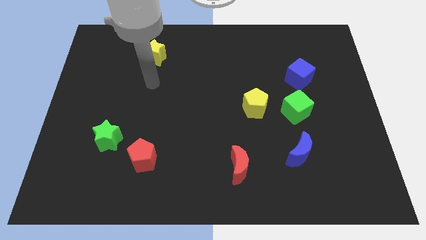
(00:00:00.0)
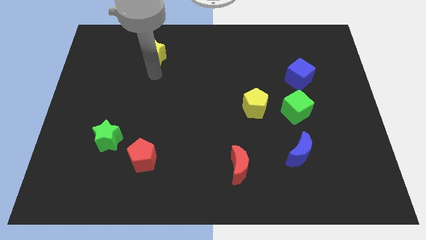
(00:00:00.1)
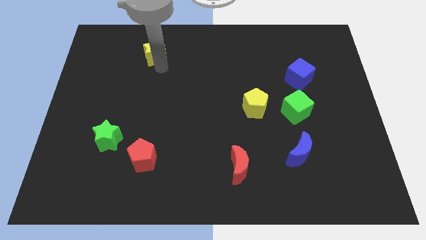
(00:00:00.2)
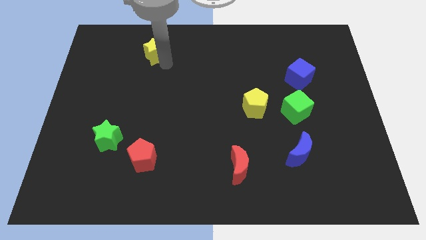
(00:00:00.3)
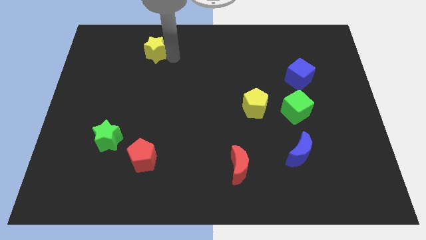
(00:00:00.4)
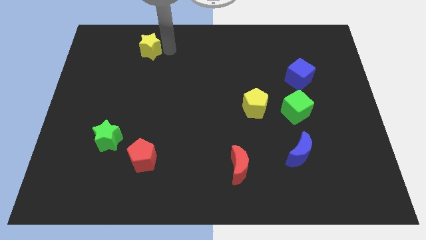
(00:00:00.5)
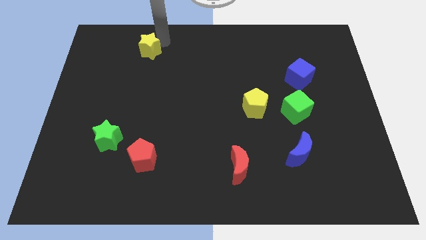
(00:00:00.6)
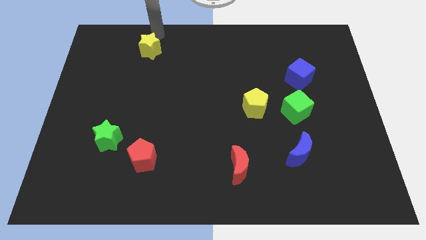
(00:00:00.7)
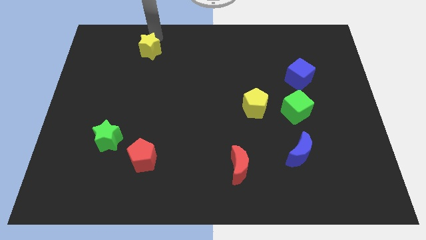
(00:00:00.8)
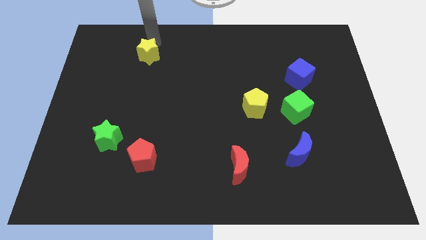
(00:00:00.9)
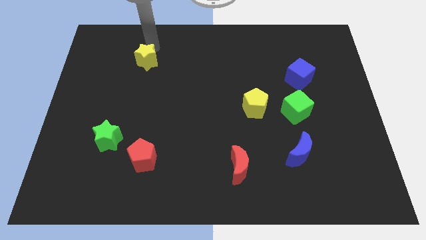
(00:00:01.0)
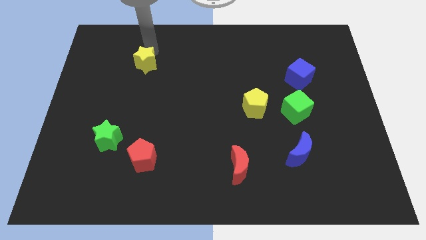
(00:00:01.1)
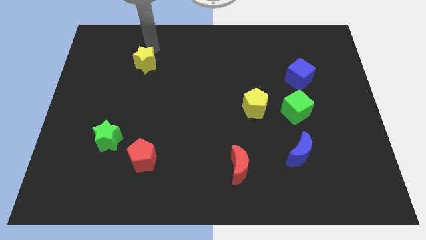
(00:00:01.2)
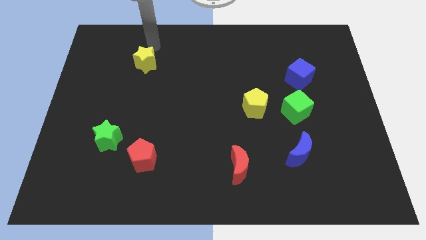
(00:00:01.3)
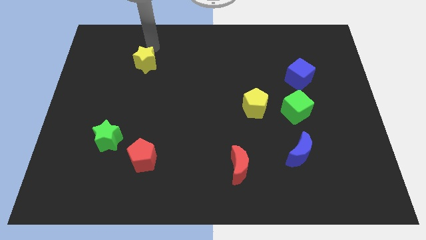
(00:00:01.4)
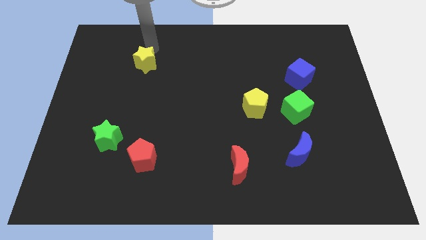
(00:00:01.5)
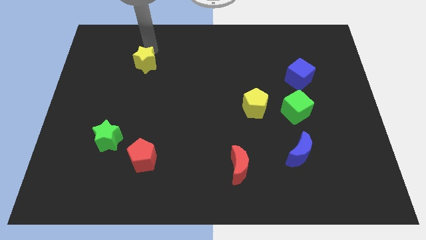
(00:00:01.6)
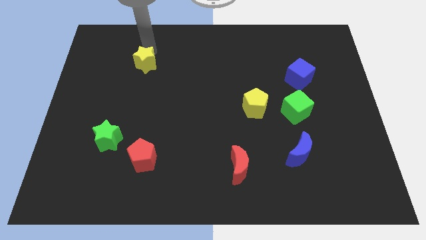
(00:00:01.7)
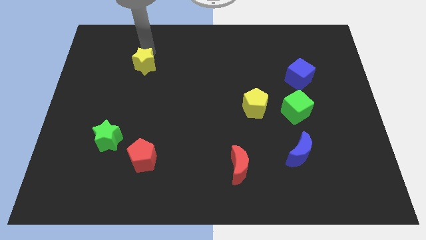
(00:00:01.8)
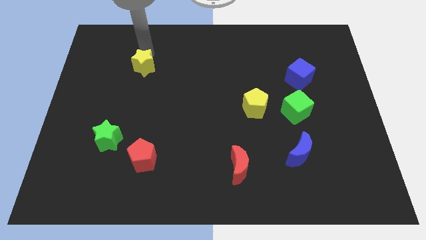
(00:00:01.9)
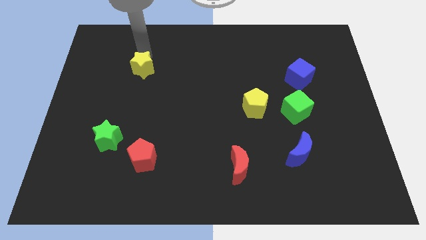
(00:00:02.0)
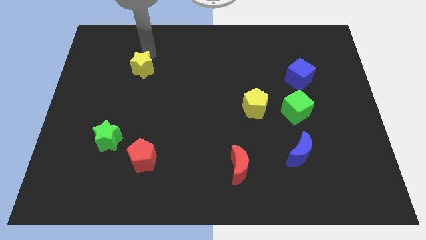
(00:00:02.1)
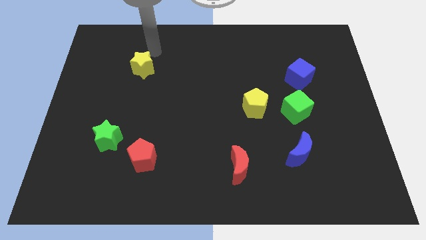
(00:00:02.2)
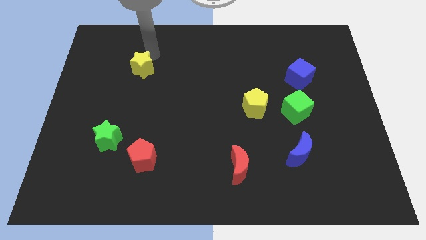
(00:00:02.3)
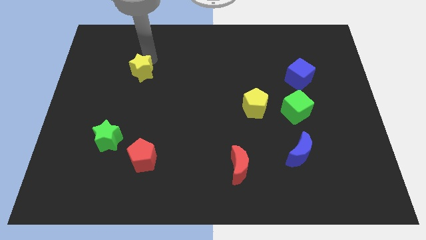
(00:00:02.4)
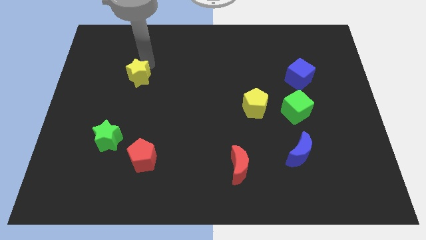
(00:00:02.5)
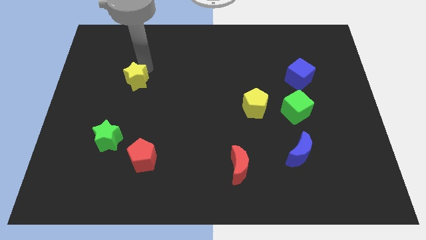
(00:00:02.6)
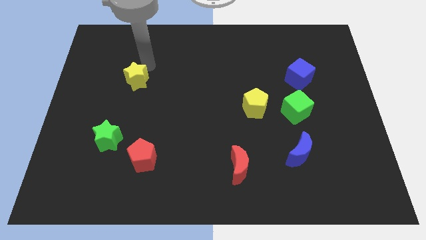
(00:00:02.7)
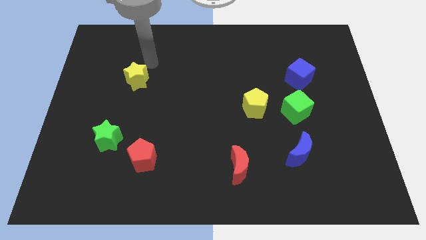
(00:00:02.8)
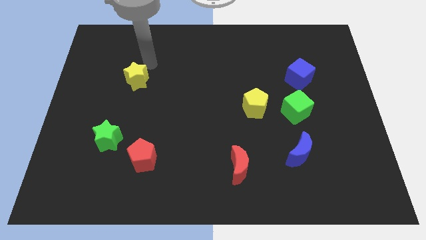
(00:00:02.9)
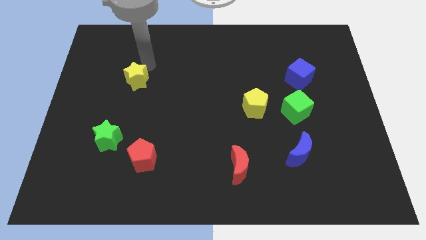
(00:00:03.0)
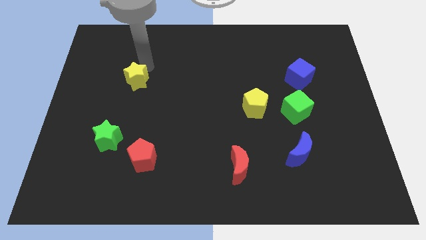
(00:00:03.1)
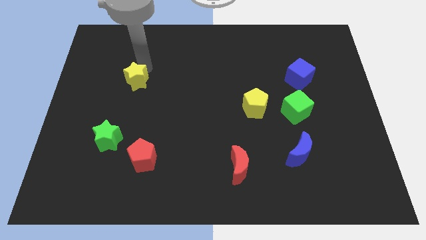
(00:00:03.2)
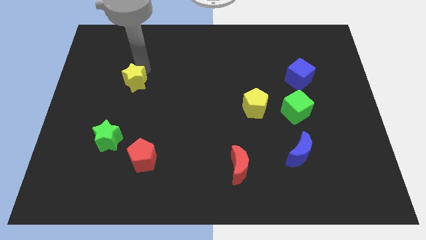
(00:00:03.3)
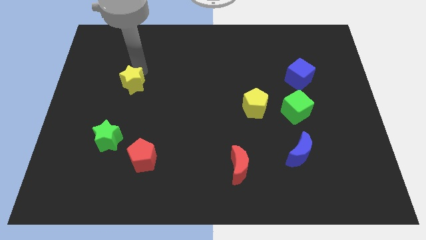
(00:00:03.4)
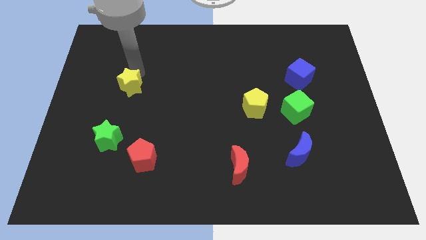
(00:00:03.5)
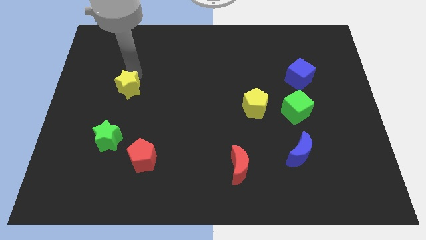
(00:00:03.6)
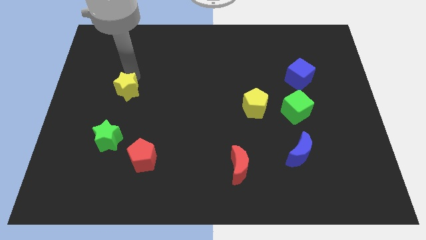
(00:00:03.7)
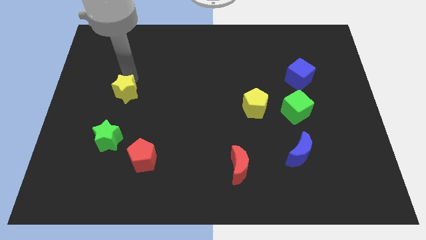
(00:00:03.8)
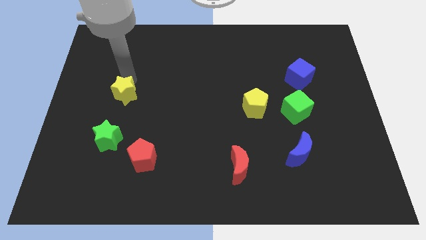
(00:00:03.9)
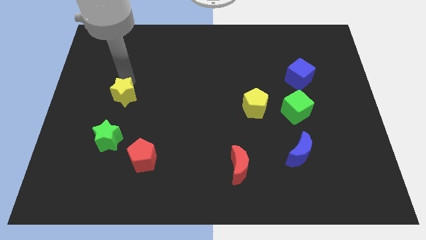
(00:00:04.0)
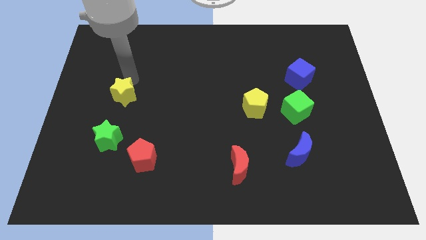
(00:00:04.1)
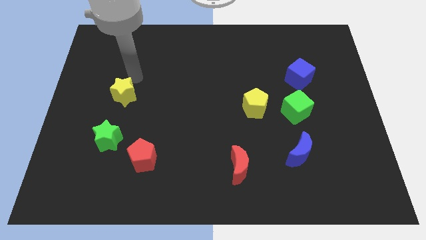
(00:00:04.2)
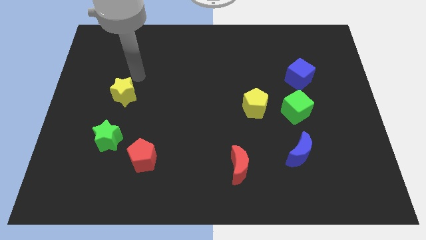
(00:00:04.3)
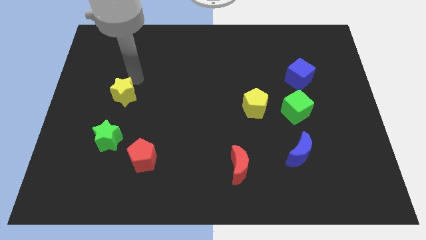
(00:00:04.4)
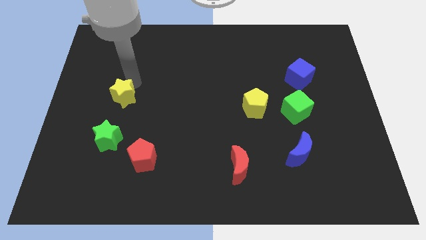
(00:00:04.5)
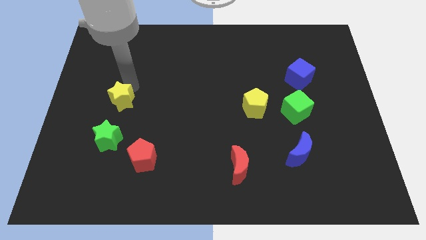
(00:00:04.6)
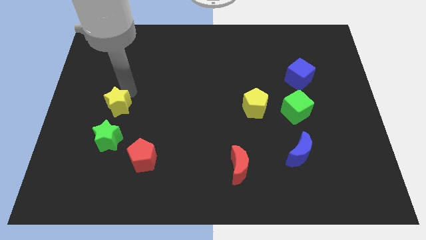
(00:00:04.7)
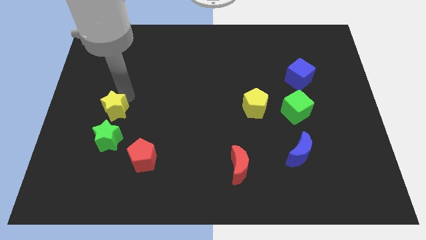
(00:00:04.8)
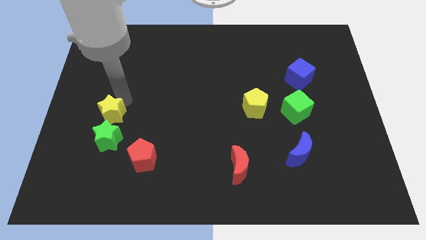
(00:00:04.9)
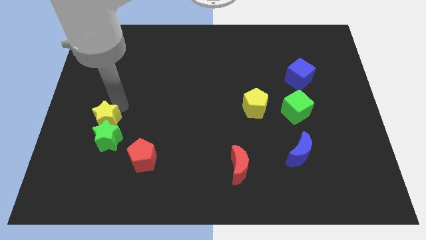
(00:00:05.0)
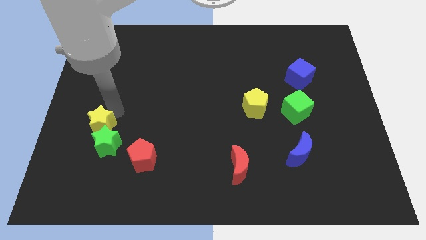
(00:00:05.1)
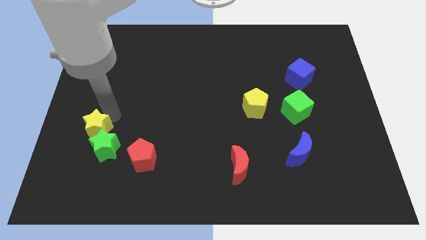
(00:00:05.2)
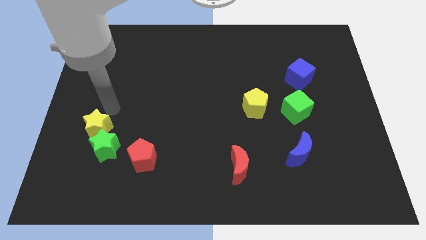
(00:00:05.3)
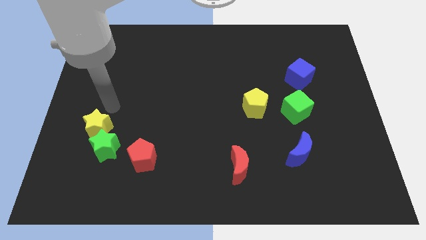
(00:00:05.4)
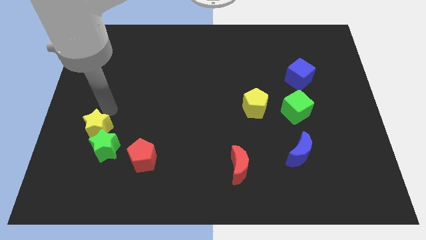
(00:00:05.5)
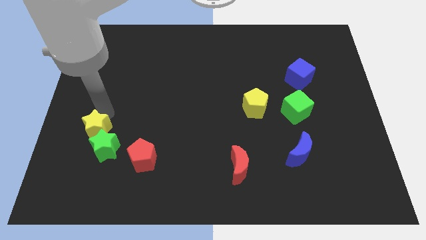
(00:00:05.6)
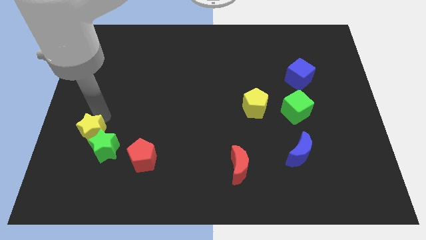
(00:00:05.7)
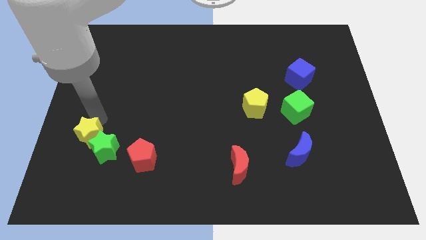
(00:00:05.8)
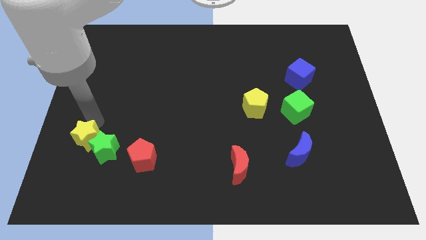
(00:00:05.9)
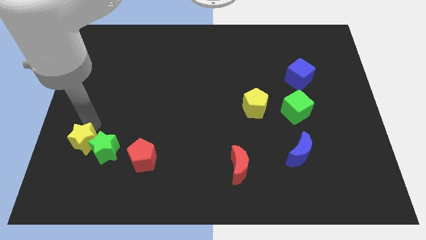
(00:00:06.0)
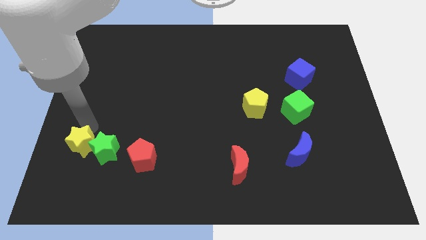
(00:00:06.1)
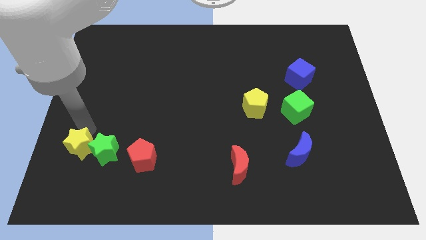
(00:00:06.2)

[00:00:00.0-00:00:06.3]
push the yellow star to the bottom left of the green star
